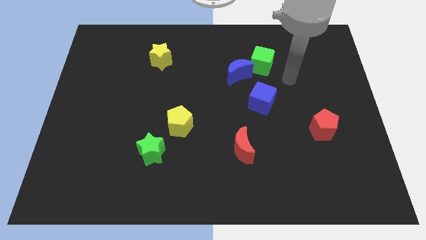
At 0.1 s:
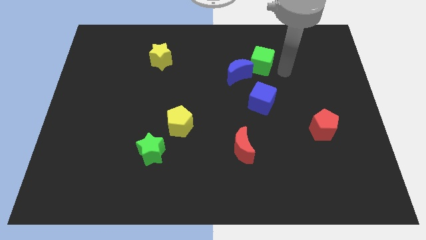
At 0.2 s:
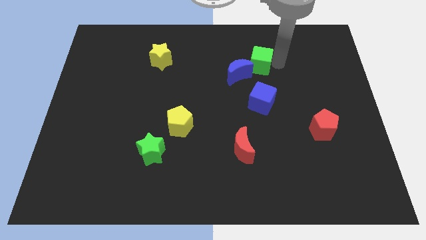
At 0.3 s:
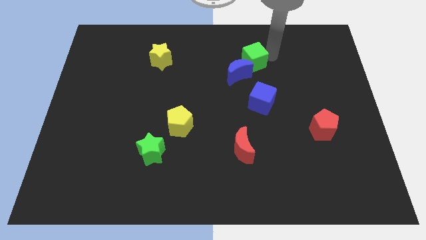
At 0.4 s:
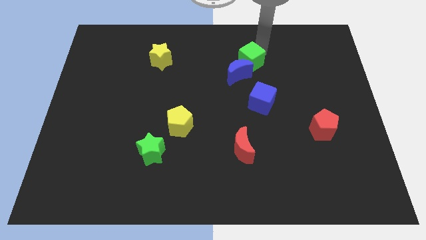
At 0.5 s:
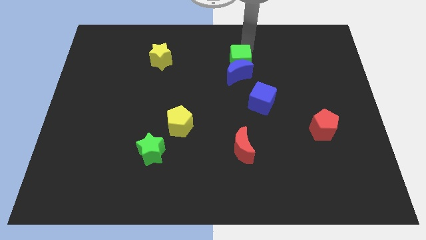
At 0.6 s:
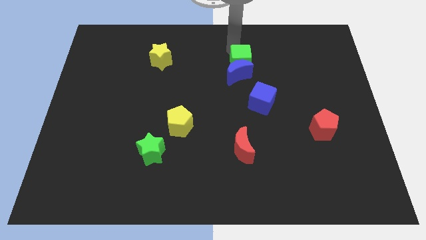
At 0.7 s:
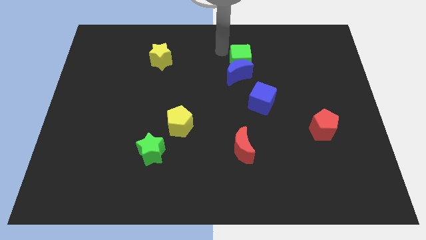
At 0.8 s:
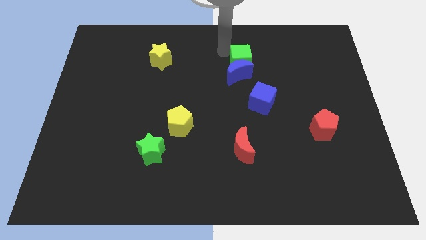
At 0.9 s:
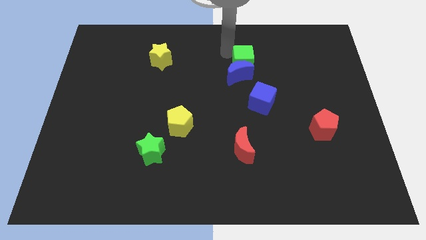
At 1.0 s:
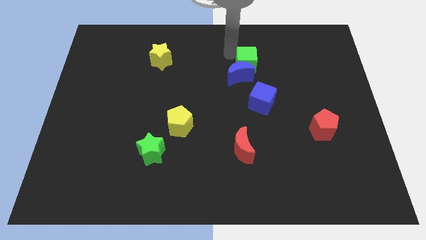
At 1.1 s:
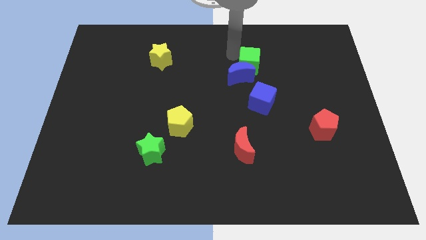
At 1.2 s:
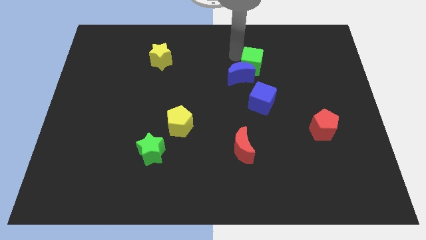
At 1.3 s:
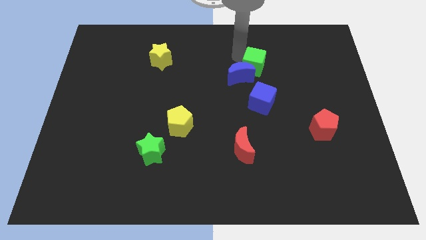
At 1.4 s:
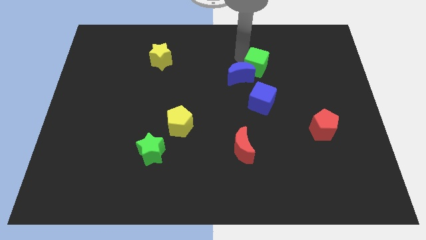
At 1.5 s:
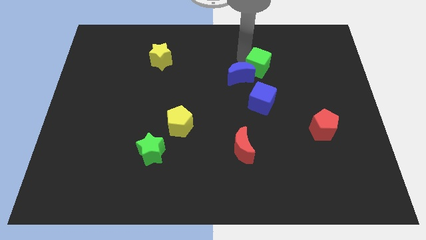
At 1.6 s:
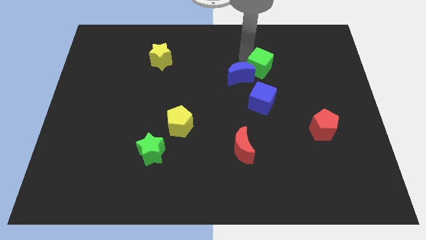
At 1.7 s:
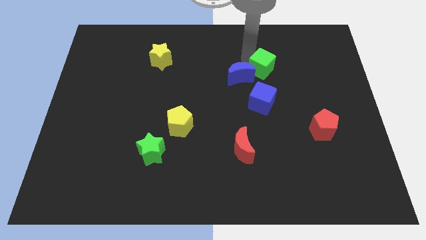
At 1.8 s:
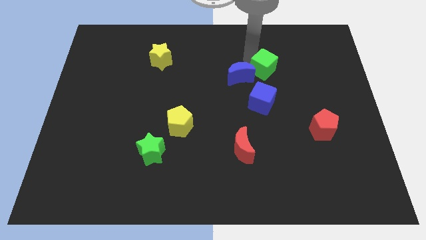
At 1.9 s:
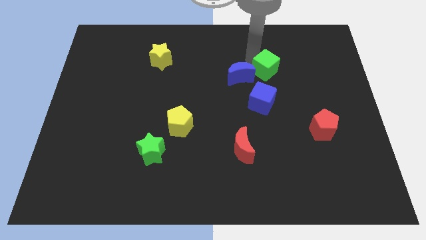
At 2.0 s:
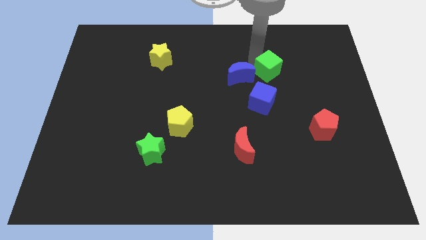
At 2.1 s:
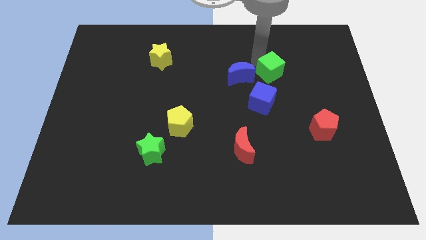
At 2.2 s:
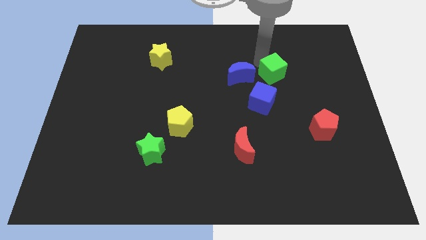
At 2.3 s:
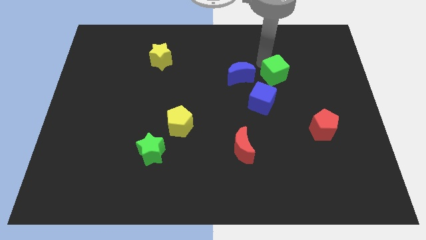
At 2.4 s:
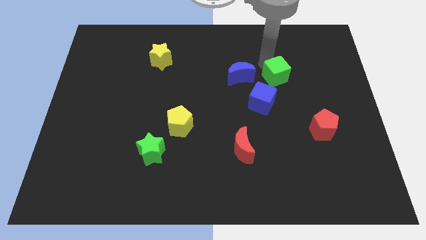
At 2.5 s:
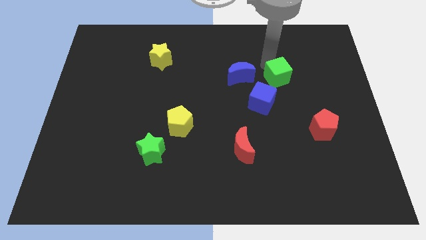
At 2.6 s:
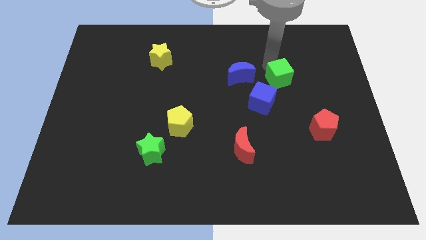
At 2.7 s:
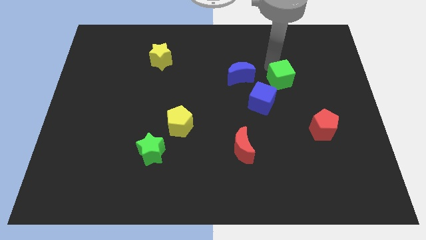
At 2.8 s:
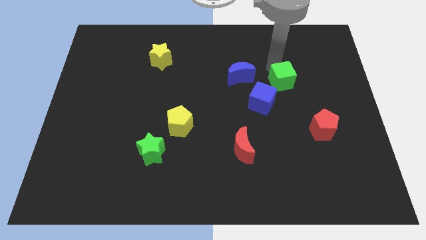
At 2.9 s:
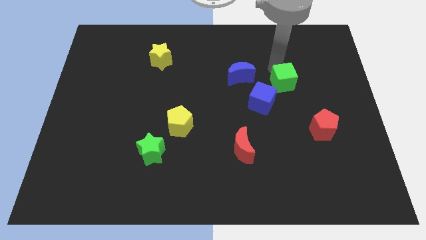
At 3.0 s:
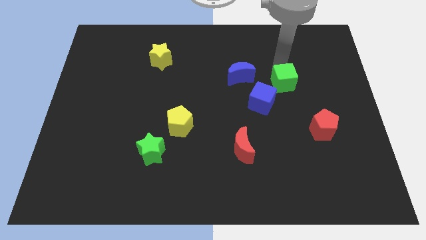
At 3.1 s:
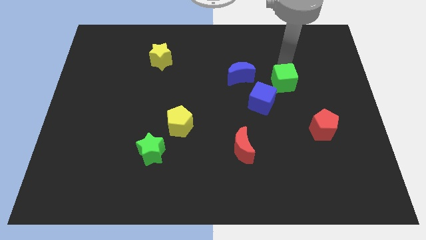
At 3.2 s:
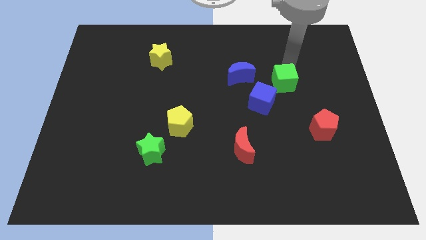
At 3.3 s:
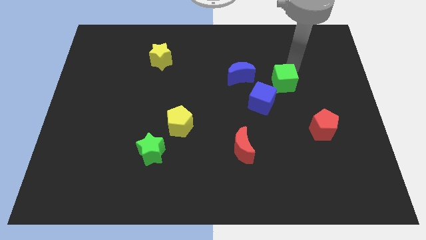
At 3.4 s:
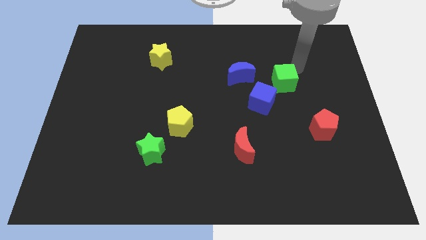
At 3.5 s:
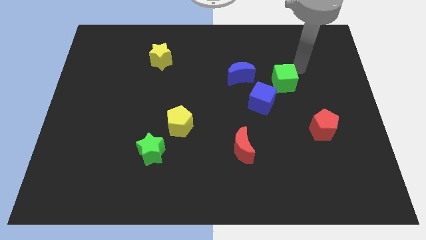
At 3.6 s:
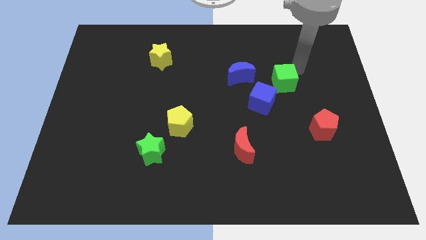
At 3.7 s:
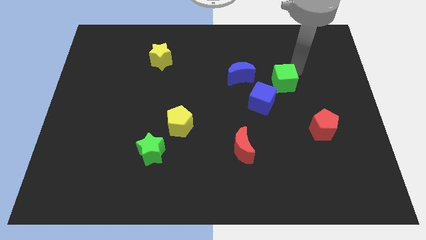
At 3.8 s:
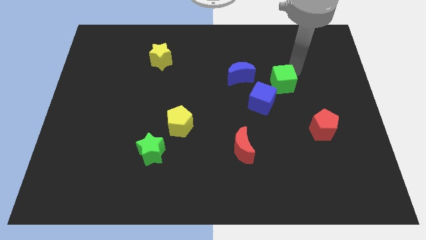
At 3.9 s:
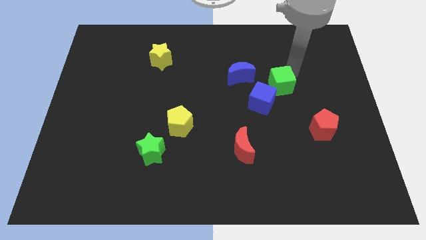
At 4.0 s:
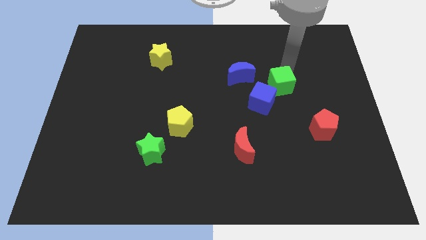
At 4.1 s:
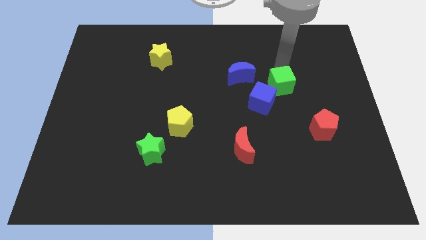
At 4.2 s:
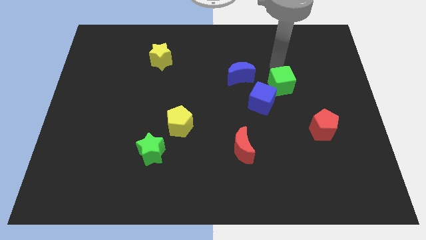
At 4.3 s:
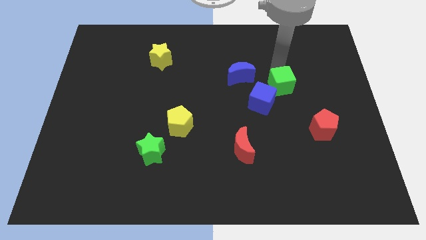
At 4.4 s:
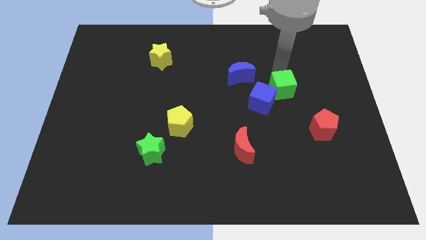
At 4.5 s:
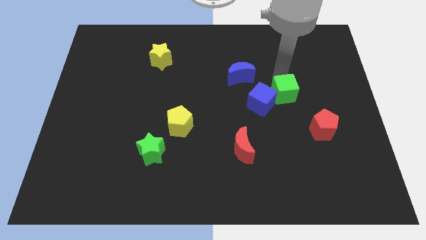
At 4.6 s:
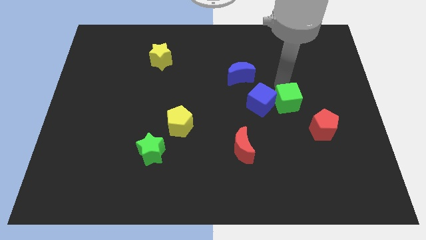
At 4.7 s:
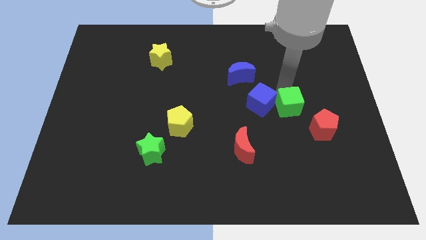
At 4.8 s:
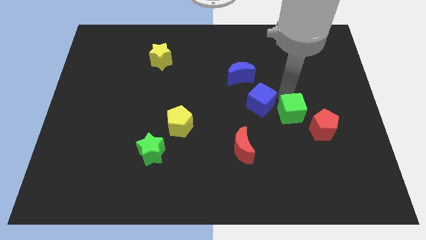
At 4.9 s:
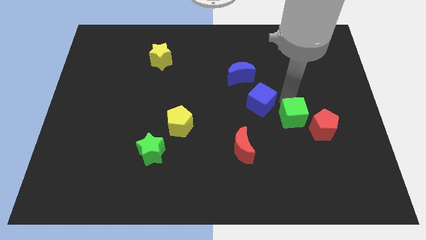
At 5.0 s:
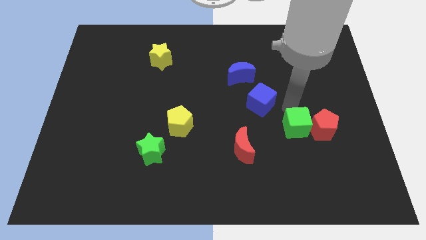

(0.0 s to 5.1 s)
slide the green cube to the bottom left of the red pentagon

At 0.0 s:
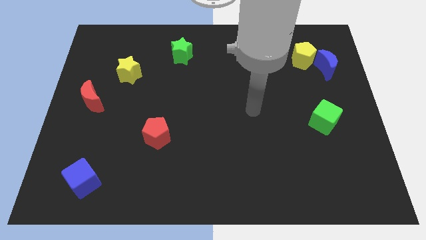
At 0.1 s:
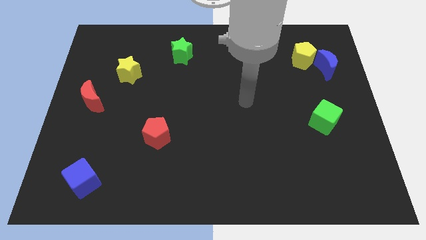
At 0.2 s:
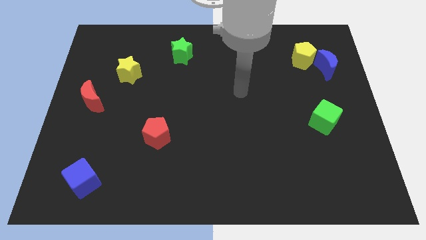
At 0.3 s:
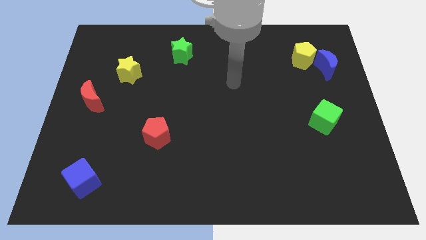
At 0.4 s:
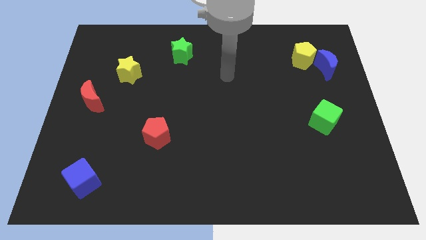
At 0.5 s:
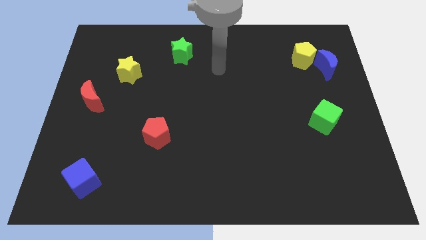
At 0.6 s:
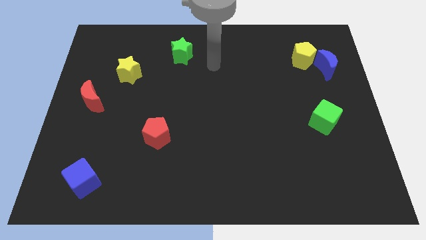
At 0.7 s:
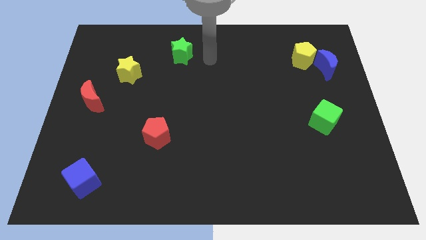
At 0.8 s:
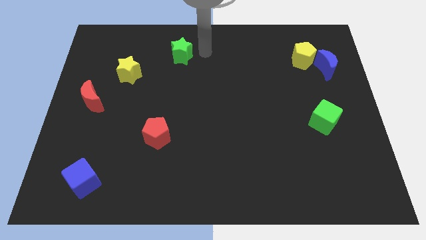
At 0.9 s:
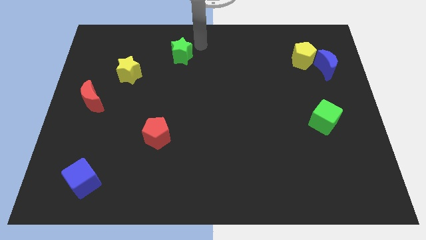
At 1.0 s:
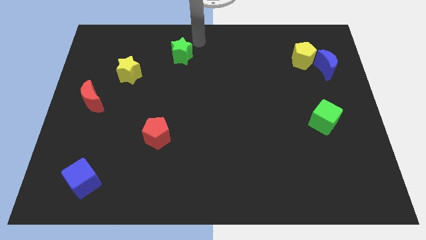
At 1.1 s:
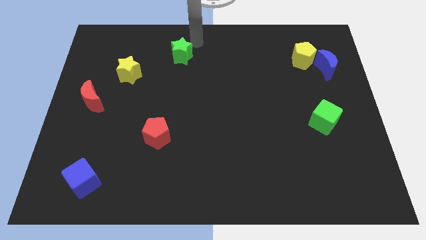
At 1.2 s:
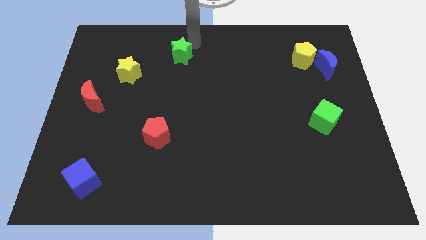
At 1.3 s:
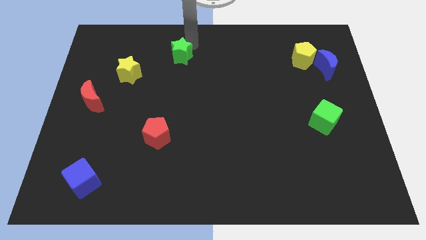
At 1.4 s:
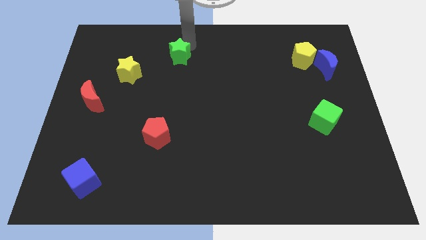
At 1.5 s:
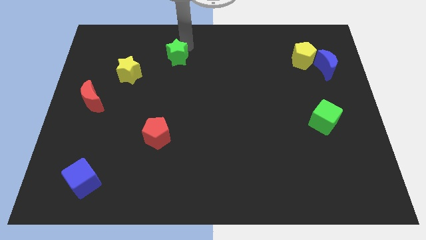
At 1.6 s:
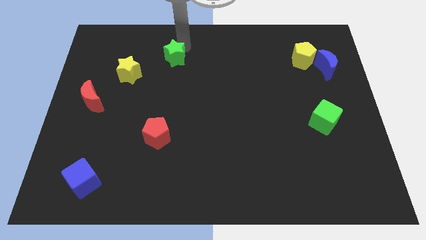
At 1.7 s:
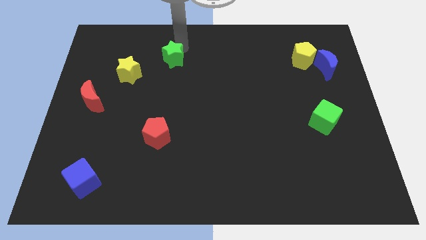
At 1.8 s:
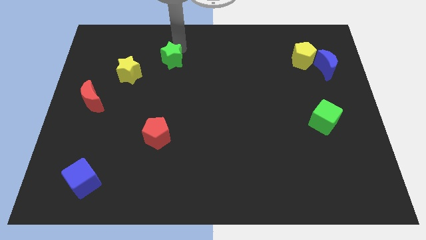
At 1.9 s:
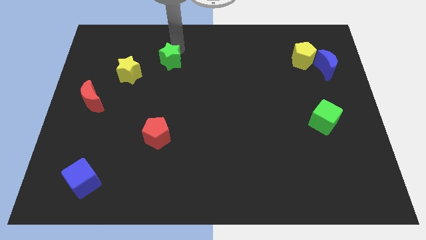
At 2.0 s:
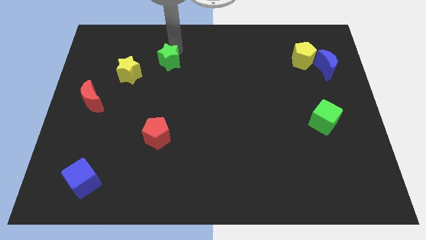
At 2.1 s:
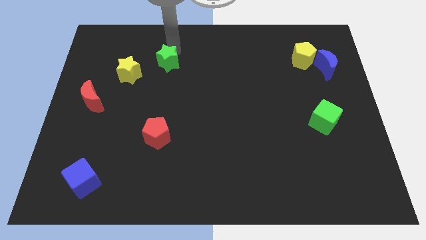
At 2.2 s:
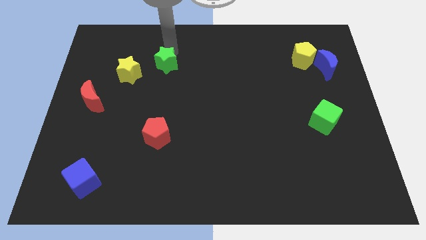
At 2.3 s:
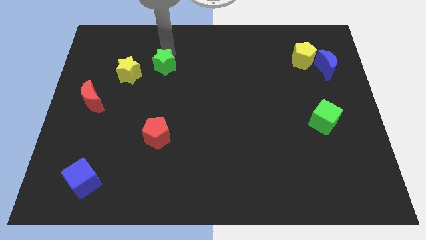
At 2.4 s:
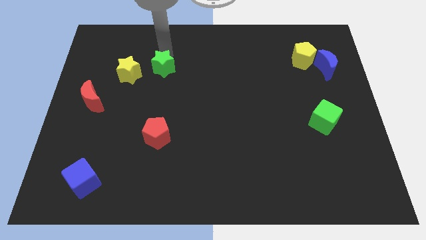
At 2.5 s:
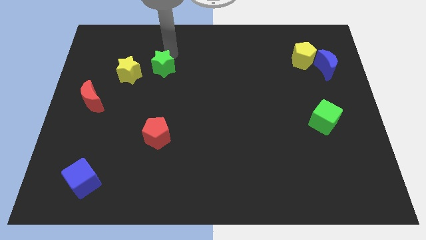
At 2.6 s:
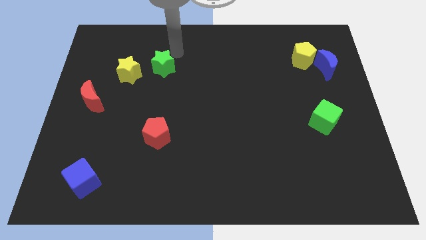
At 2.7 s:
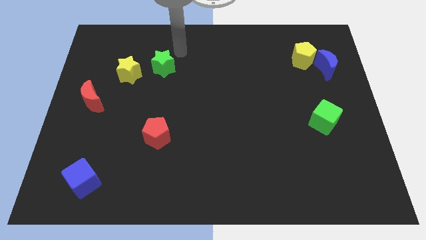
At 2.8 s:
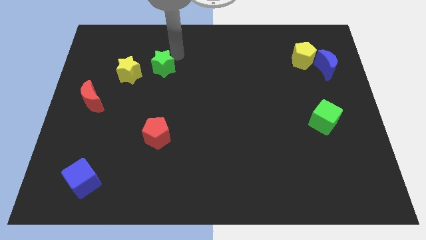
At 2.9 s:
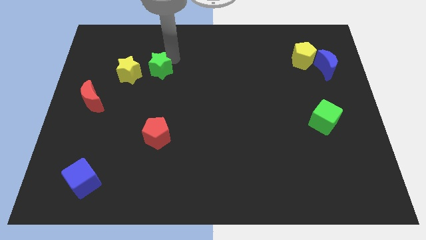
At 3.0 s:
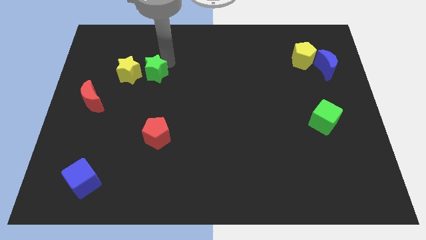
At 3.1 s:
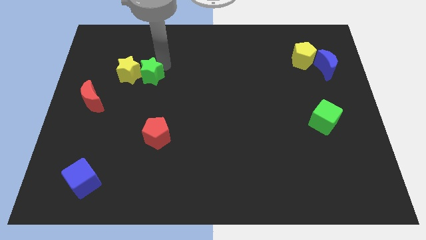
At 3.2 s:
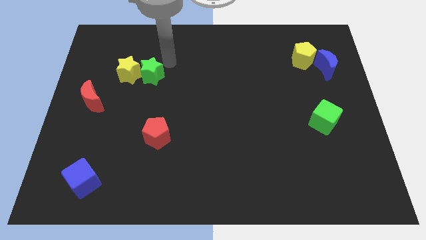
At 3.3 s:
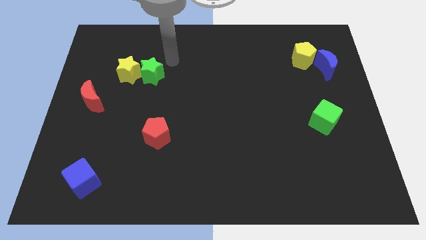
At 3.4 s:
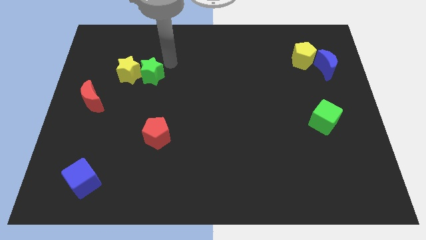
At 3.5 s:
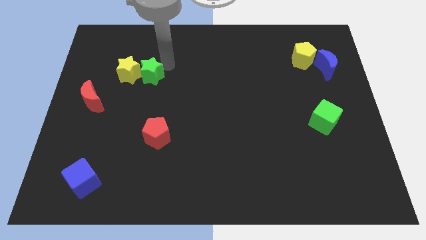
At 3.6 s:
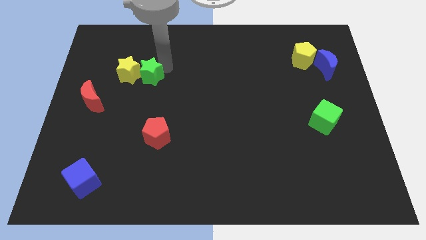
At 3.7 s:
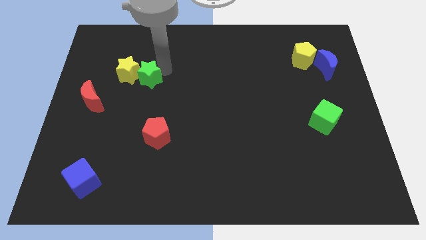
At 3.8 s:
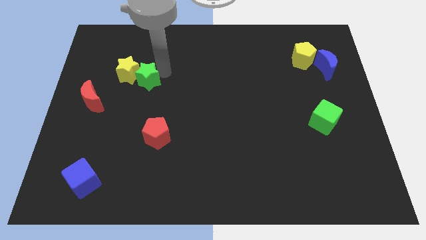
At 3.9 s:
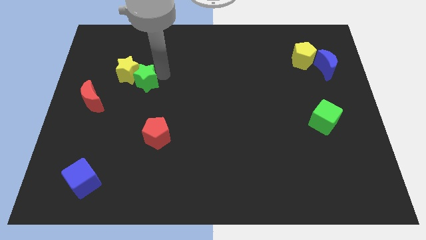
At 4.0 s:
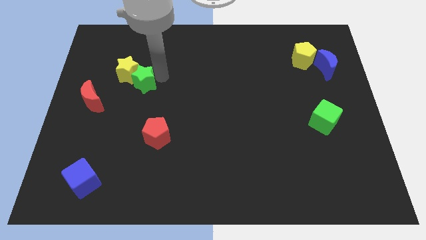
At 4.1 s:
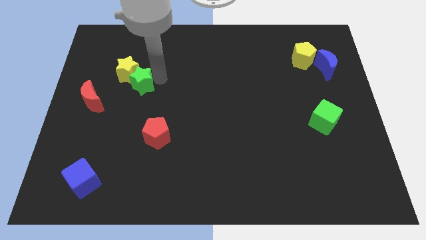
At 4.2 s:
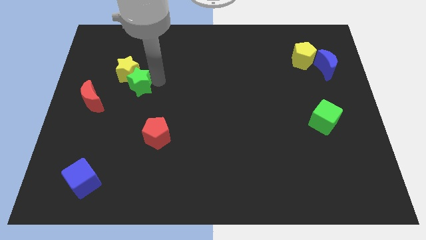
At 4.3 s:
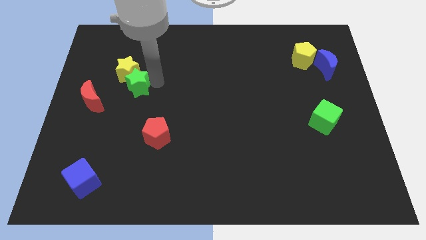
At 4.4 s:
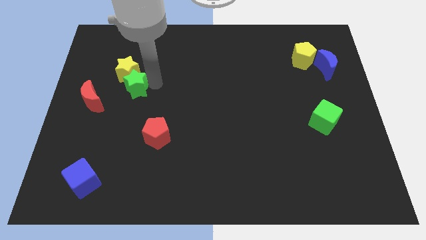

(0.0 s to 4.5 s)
slide the green star to the top right of the red moon
